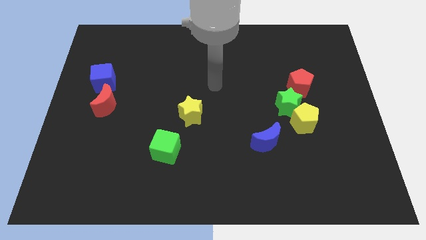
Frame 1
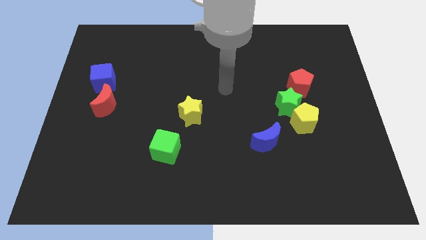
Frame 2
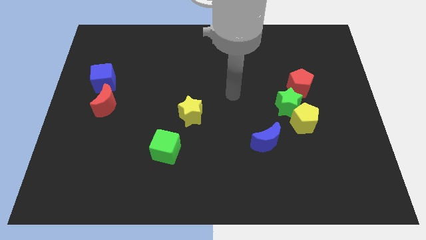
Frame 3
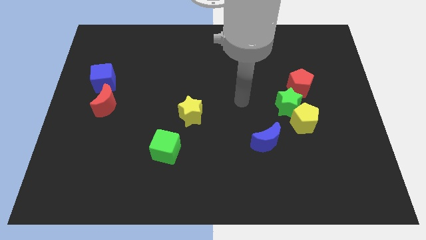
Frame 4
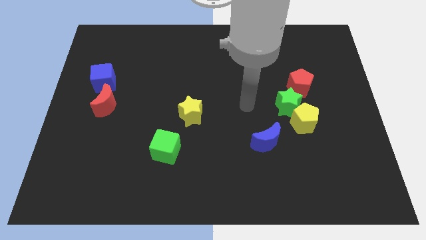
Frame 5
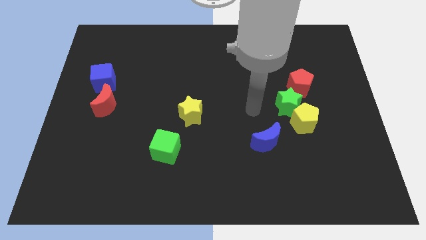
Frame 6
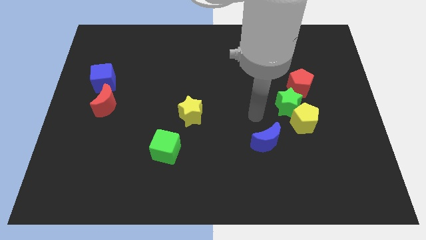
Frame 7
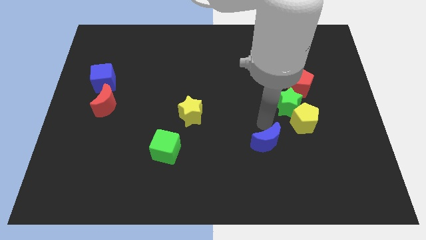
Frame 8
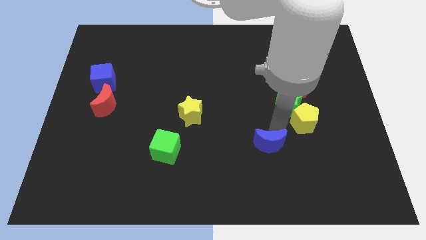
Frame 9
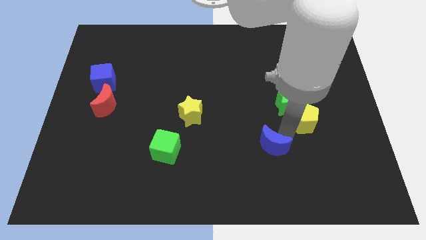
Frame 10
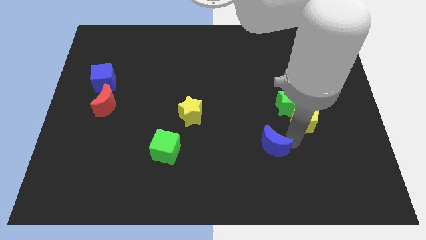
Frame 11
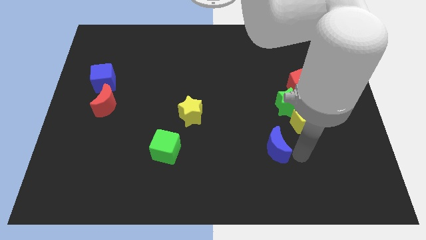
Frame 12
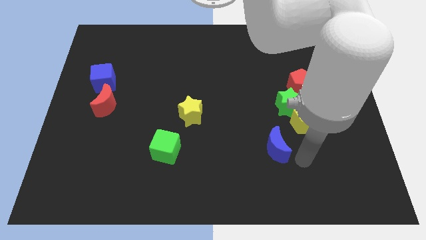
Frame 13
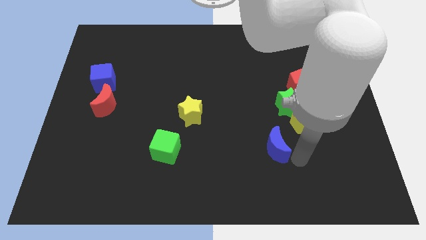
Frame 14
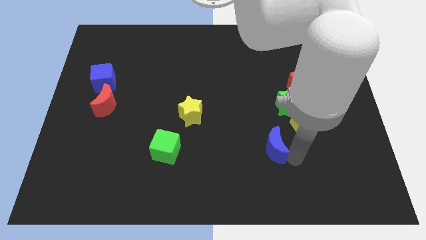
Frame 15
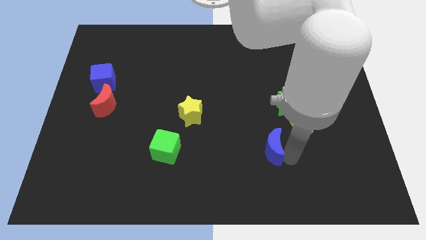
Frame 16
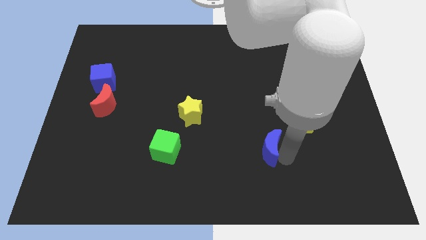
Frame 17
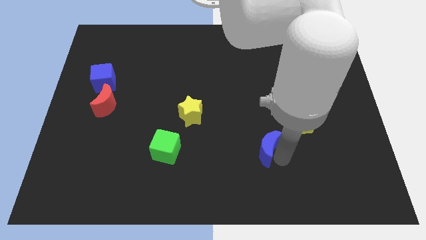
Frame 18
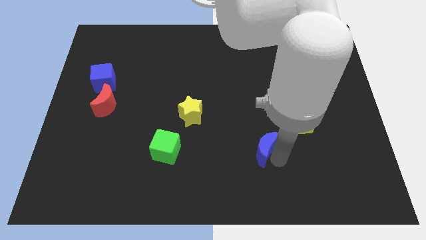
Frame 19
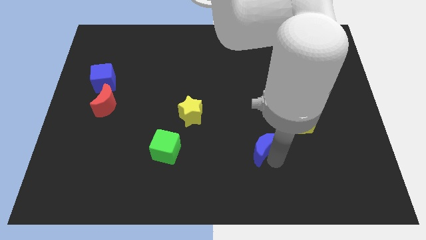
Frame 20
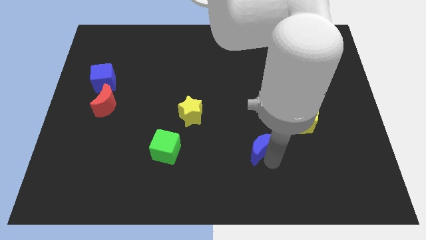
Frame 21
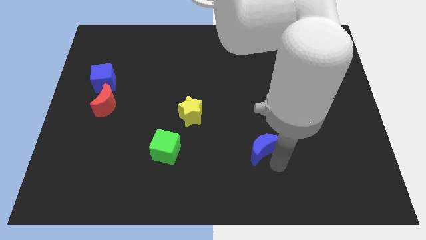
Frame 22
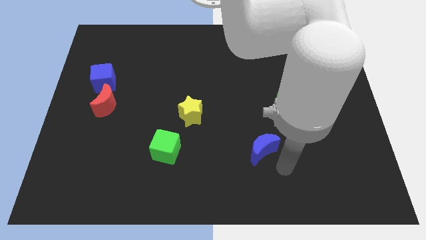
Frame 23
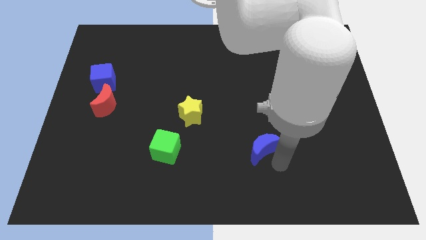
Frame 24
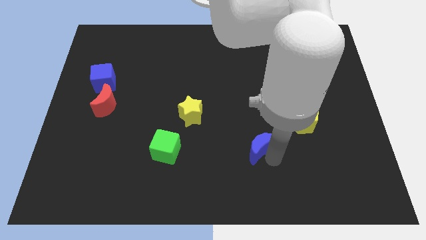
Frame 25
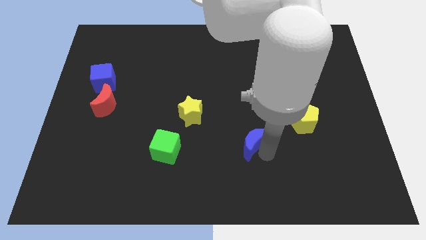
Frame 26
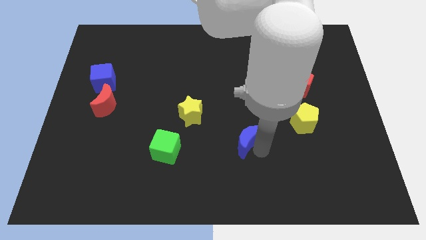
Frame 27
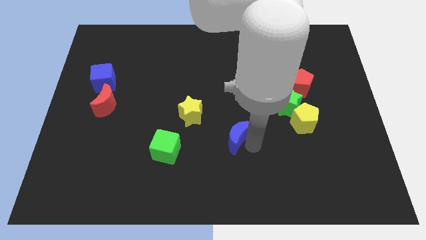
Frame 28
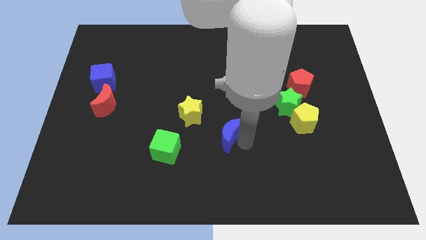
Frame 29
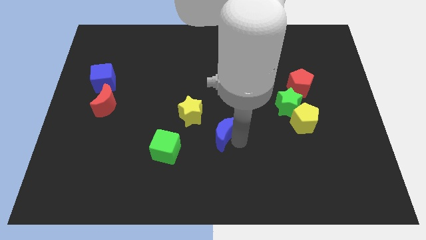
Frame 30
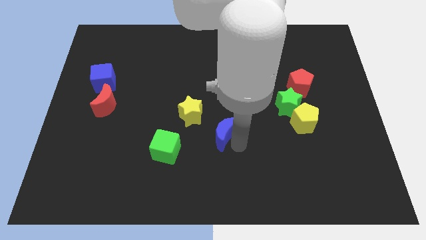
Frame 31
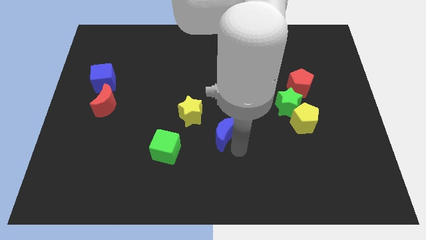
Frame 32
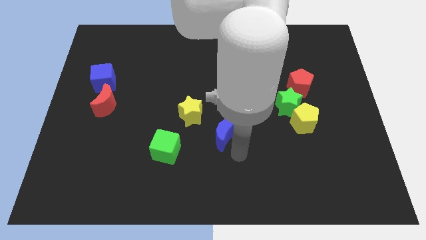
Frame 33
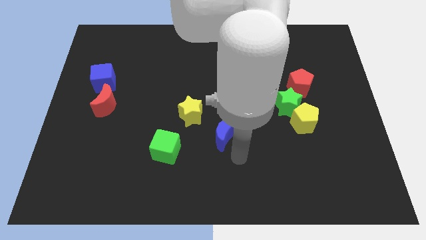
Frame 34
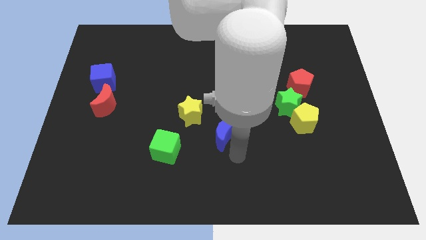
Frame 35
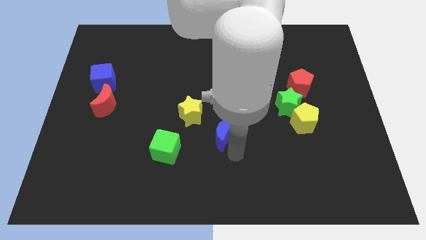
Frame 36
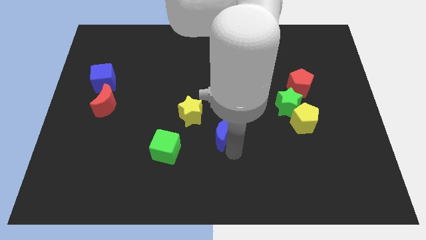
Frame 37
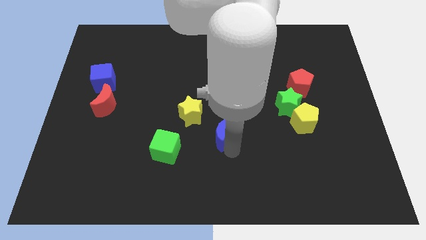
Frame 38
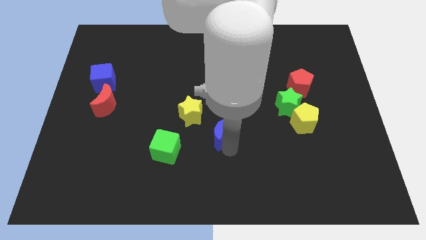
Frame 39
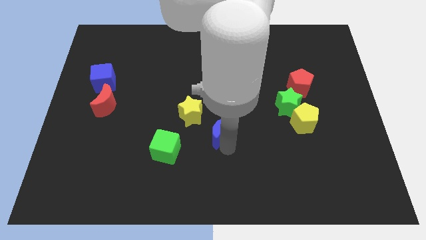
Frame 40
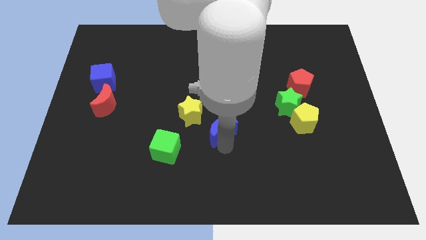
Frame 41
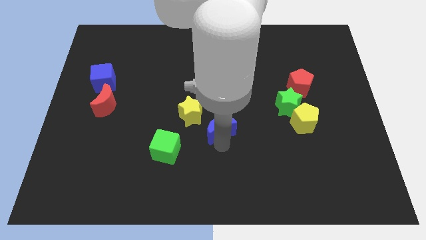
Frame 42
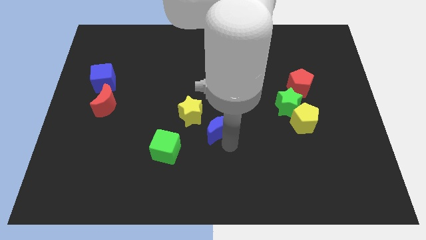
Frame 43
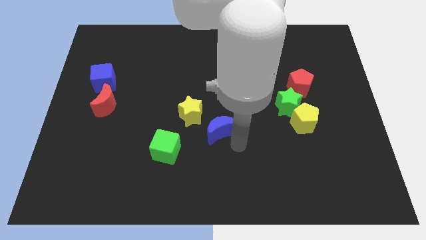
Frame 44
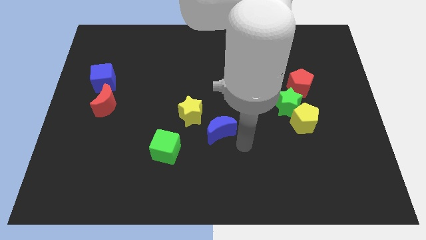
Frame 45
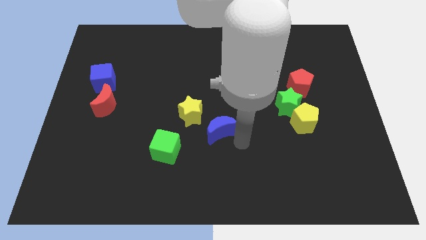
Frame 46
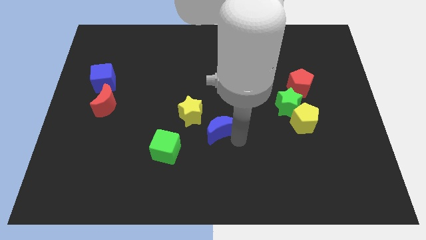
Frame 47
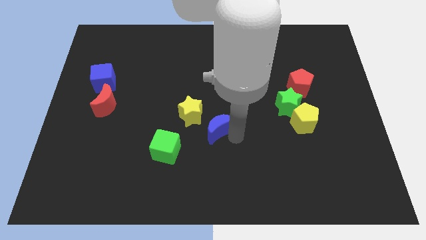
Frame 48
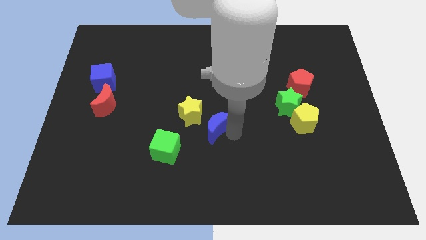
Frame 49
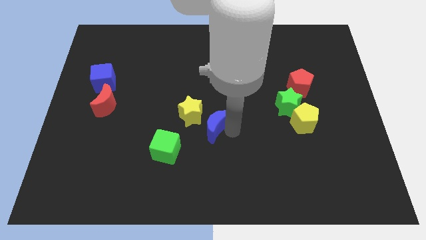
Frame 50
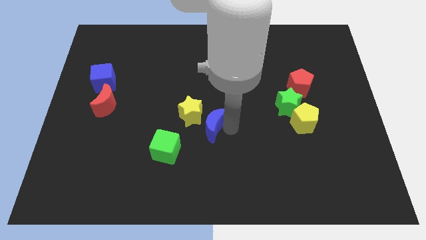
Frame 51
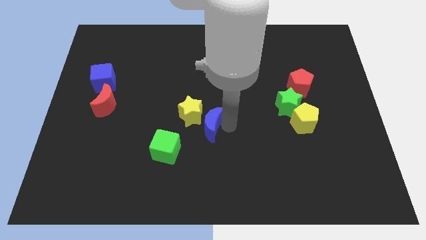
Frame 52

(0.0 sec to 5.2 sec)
push the blue moon to the yellow star

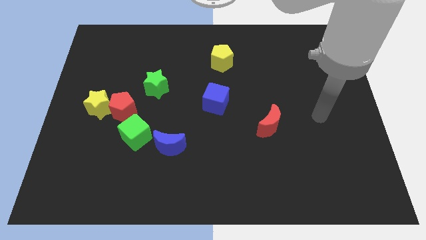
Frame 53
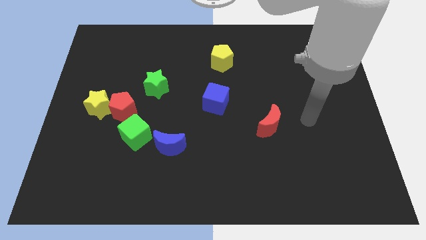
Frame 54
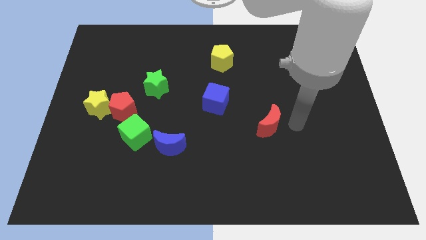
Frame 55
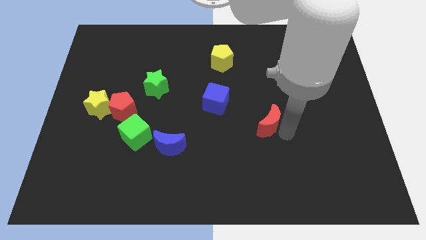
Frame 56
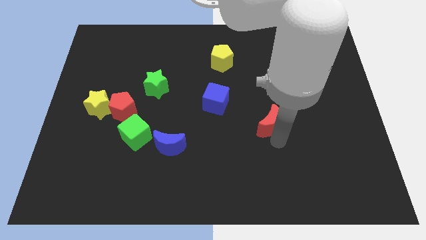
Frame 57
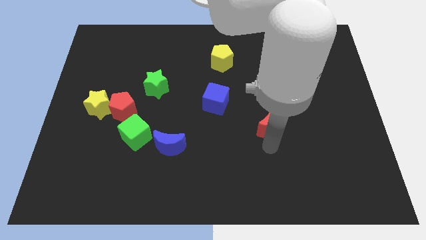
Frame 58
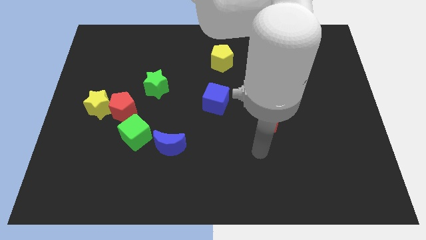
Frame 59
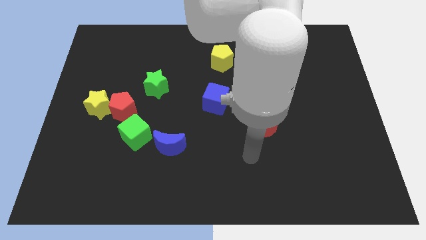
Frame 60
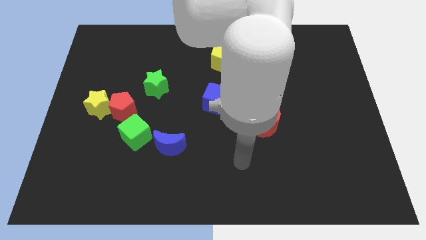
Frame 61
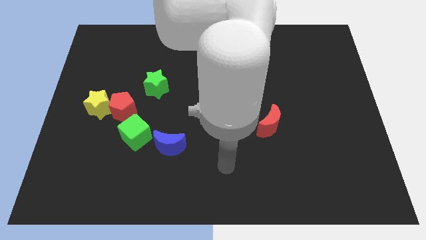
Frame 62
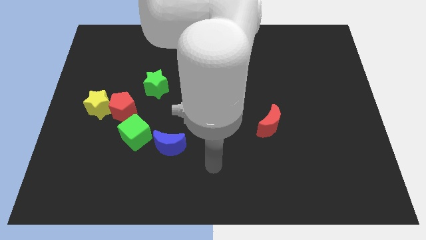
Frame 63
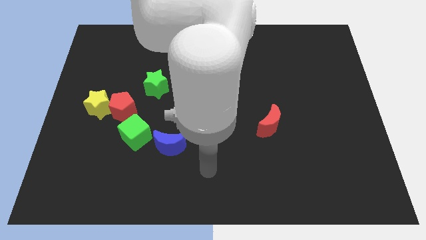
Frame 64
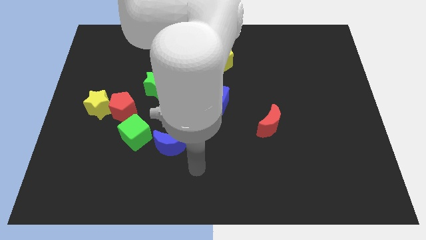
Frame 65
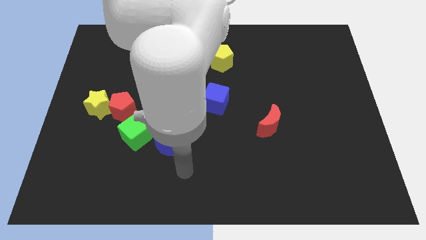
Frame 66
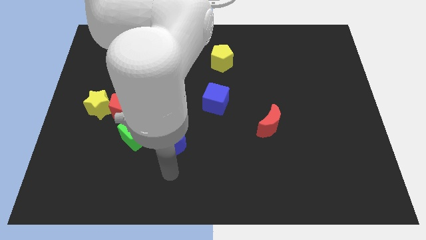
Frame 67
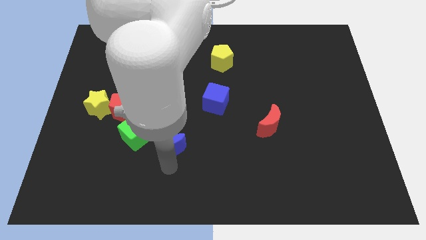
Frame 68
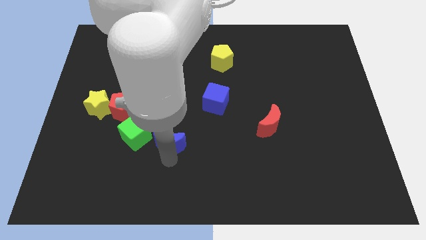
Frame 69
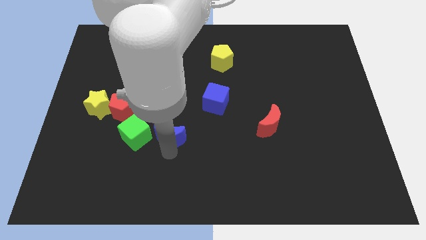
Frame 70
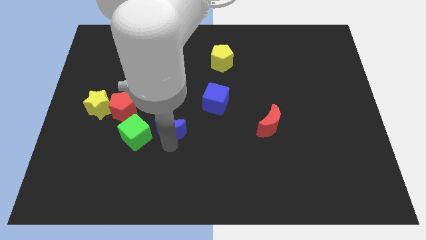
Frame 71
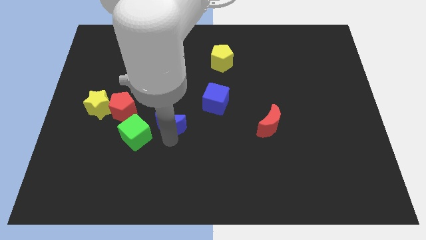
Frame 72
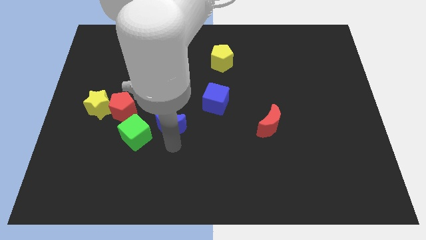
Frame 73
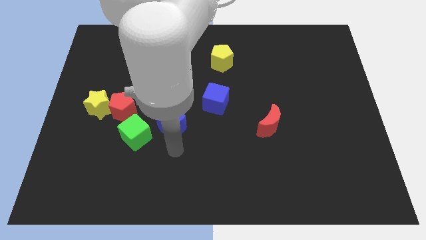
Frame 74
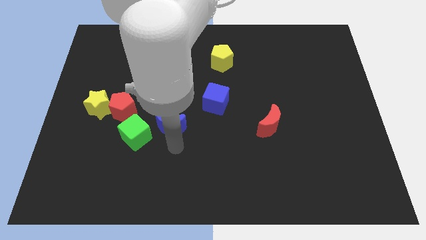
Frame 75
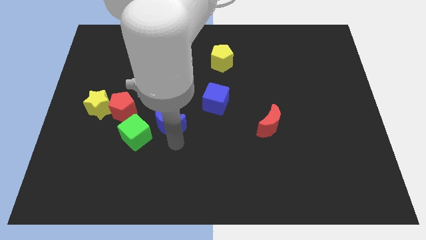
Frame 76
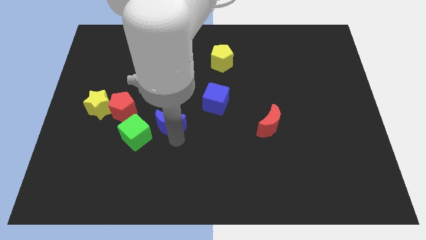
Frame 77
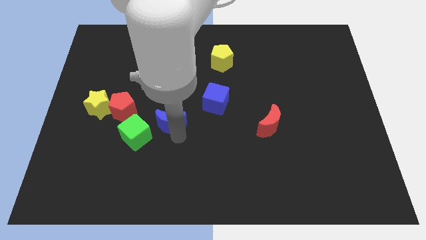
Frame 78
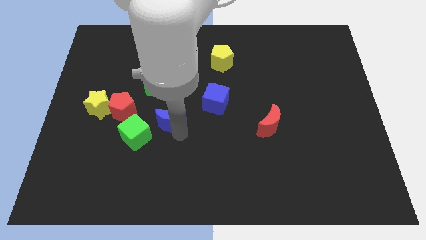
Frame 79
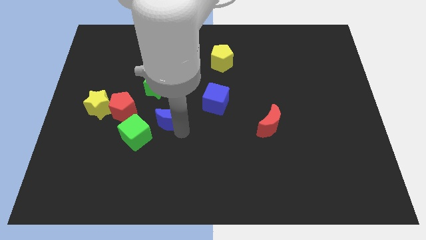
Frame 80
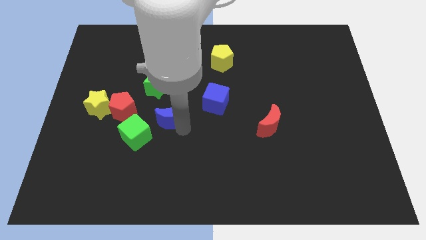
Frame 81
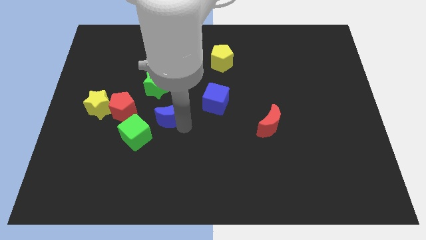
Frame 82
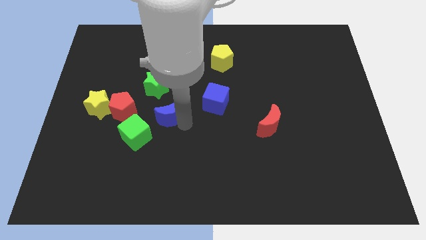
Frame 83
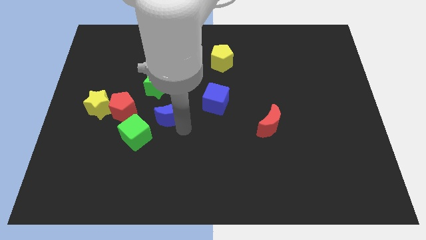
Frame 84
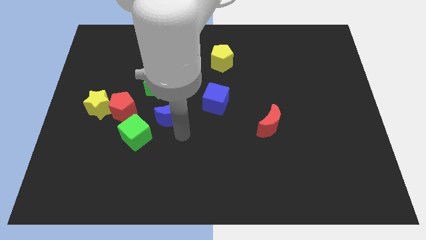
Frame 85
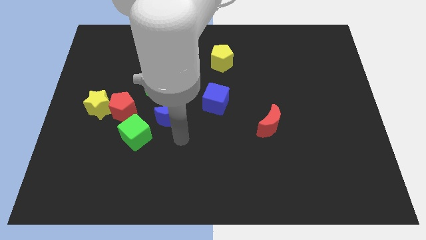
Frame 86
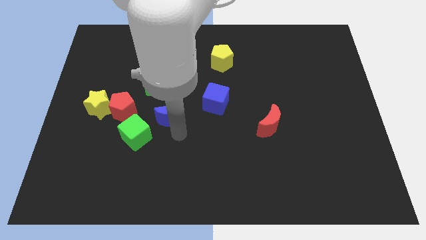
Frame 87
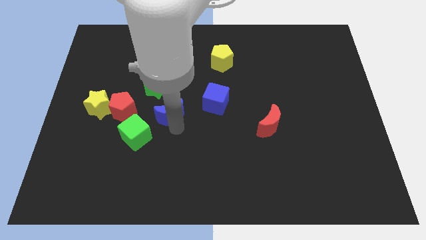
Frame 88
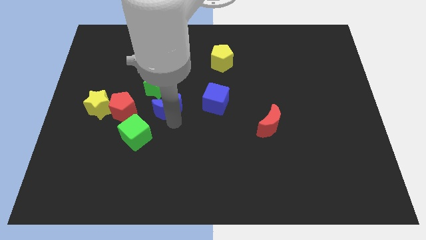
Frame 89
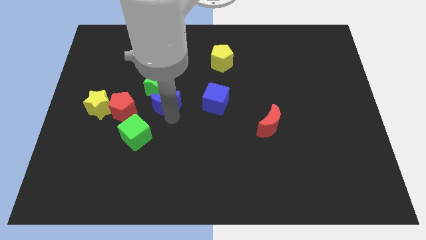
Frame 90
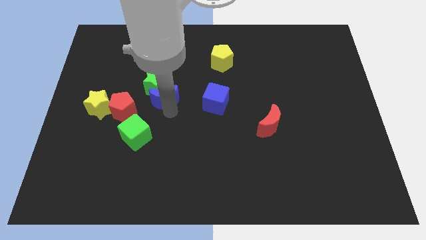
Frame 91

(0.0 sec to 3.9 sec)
move the blue moon next to the green star
